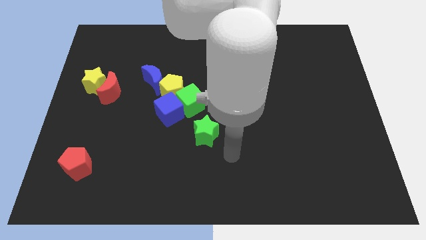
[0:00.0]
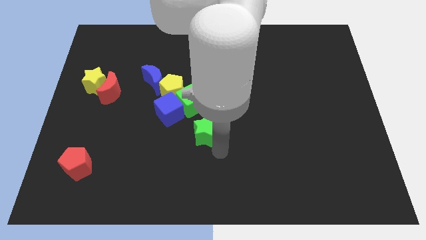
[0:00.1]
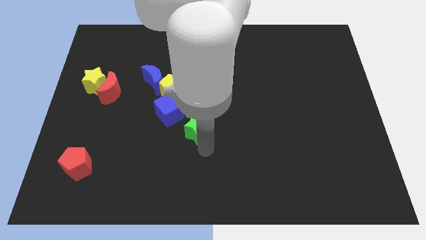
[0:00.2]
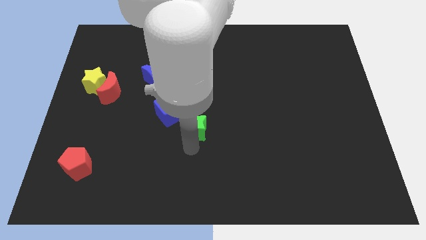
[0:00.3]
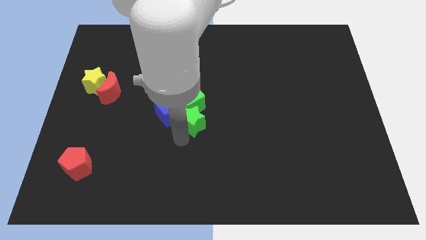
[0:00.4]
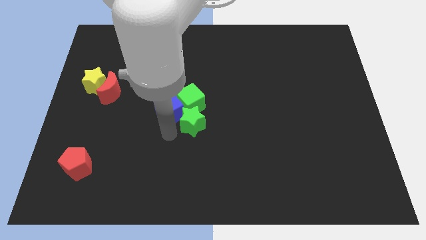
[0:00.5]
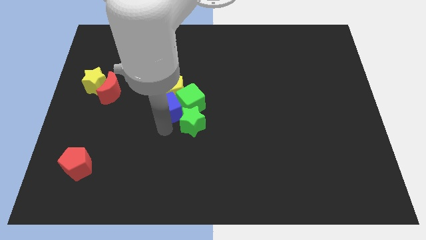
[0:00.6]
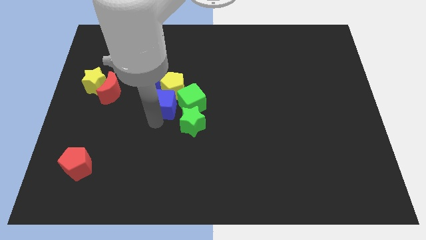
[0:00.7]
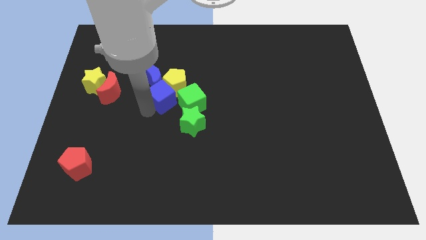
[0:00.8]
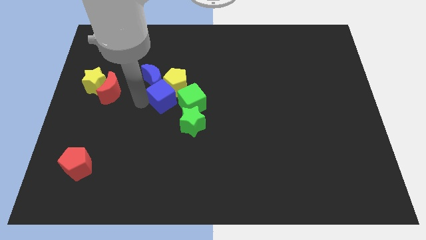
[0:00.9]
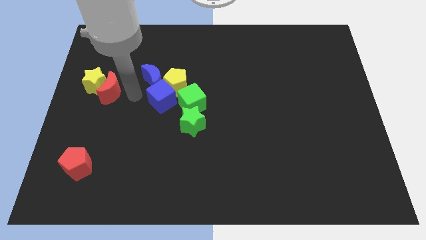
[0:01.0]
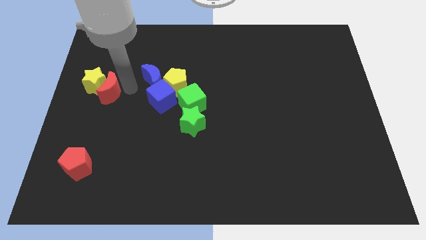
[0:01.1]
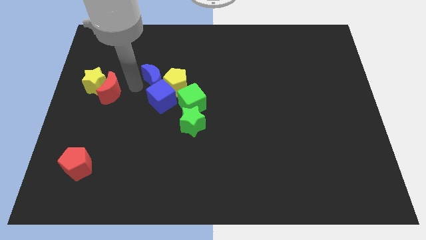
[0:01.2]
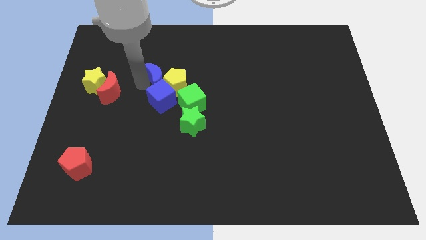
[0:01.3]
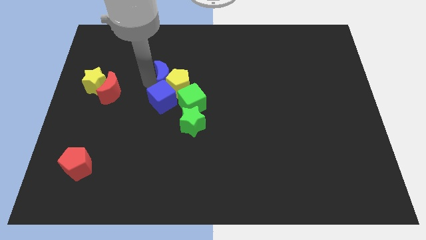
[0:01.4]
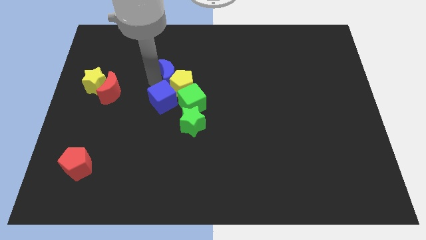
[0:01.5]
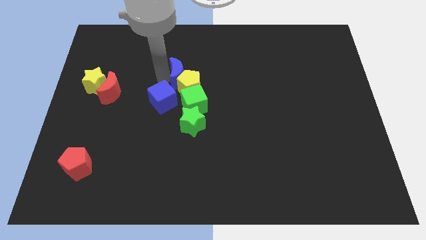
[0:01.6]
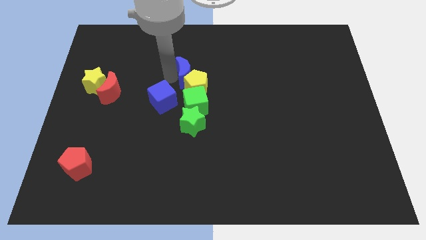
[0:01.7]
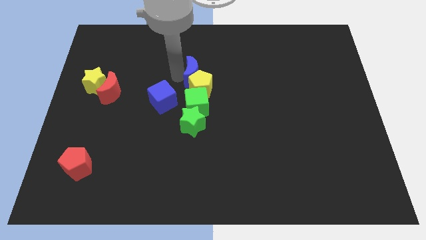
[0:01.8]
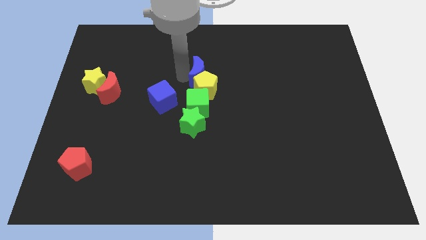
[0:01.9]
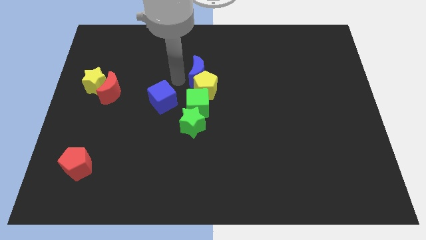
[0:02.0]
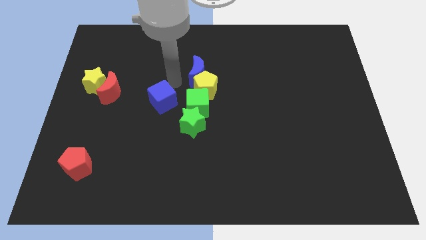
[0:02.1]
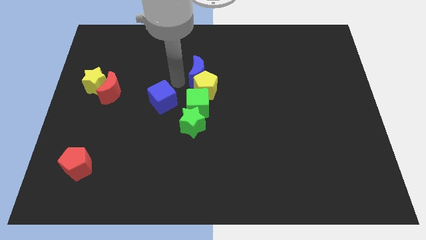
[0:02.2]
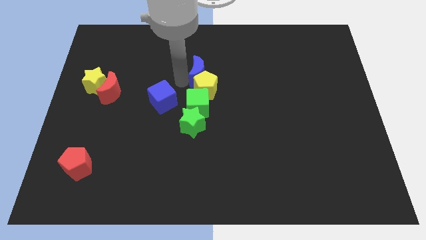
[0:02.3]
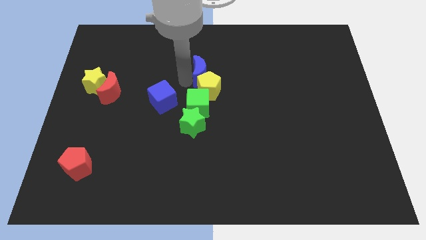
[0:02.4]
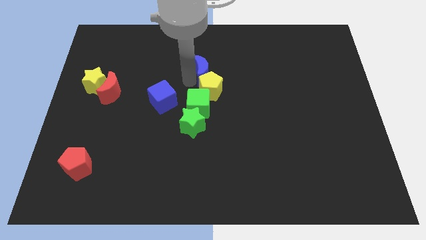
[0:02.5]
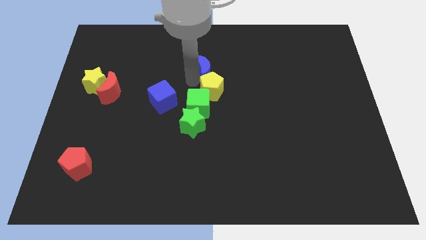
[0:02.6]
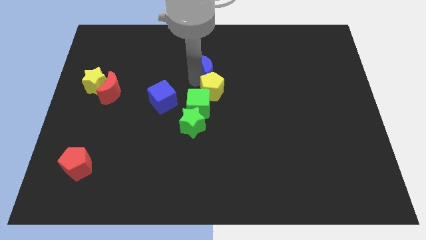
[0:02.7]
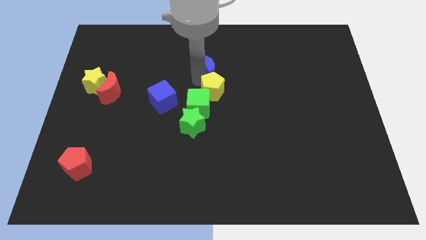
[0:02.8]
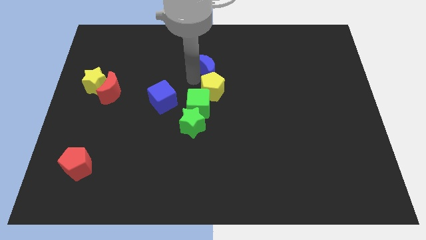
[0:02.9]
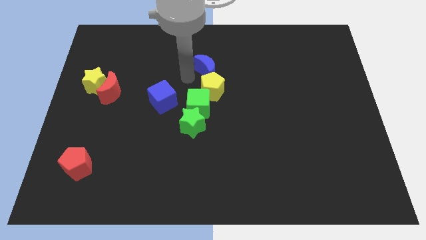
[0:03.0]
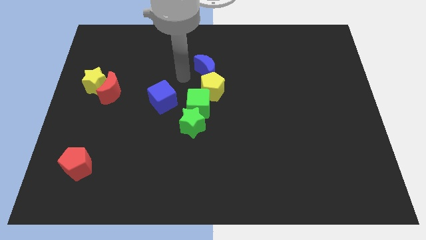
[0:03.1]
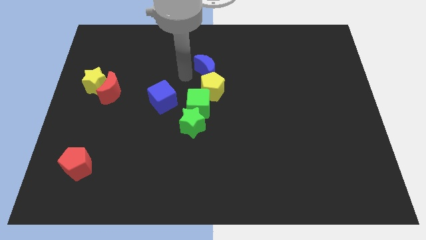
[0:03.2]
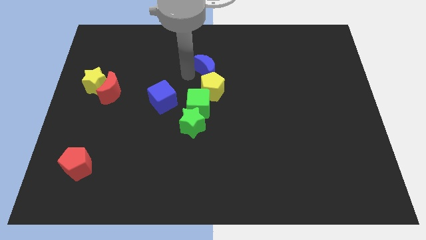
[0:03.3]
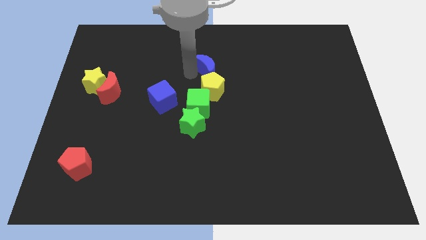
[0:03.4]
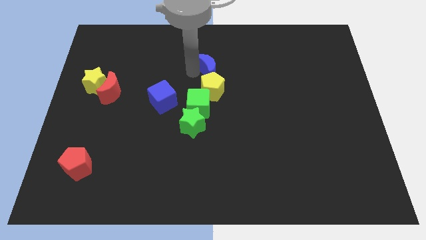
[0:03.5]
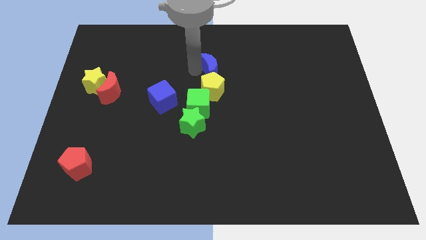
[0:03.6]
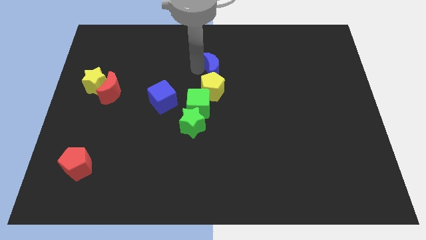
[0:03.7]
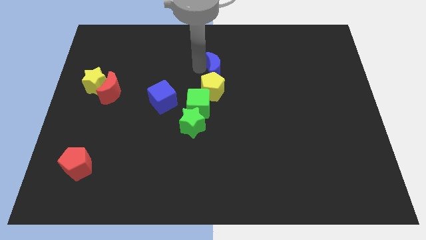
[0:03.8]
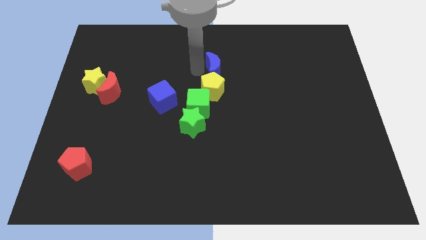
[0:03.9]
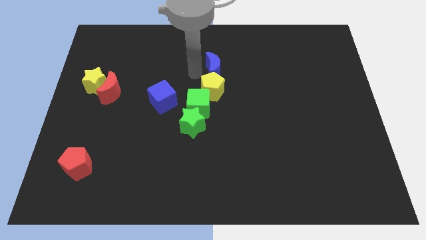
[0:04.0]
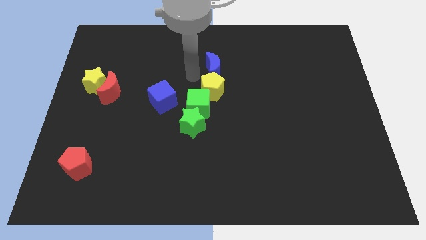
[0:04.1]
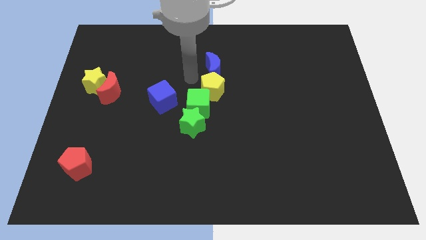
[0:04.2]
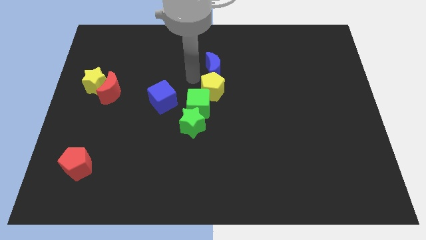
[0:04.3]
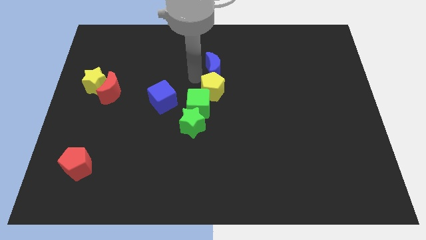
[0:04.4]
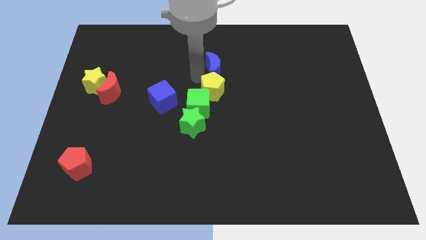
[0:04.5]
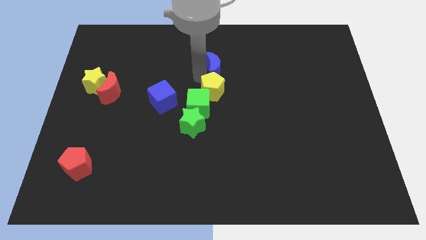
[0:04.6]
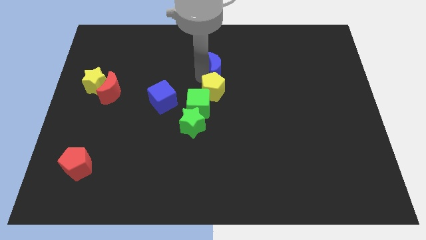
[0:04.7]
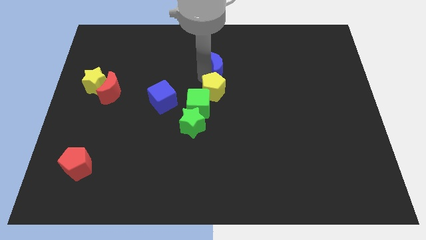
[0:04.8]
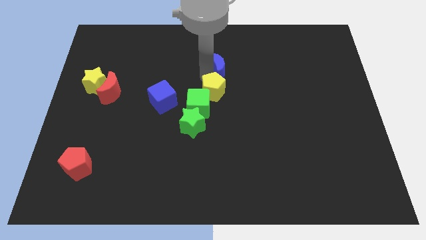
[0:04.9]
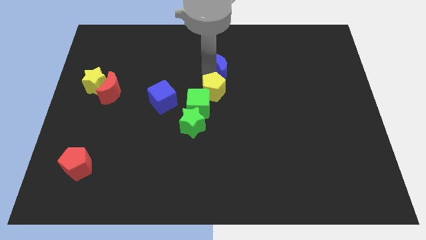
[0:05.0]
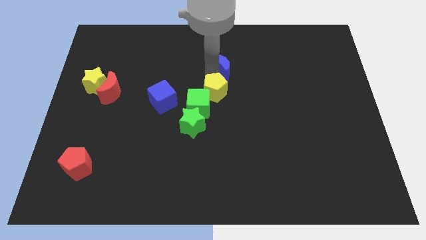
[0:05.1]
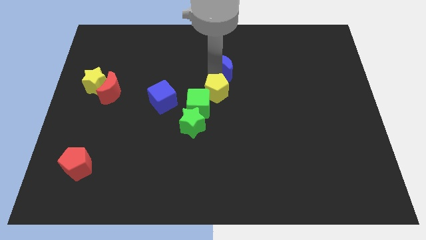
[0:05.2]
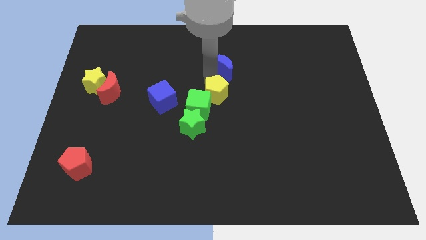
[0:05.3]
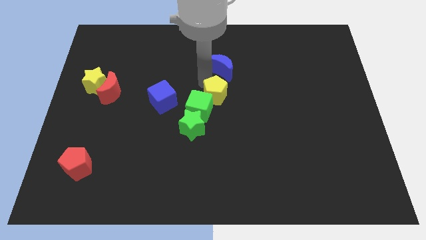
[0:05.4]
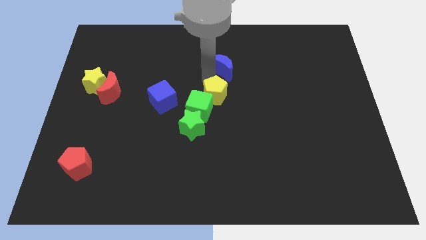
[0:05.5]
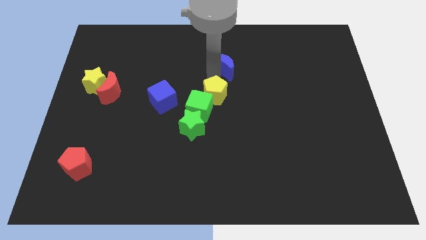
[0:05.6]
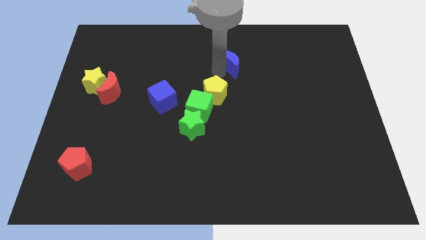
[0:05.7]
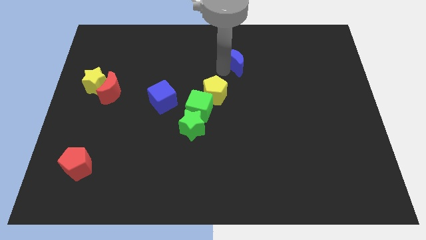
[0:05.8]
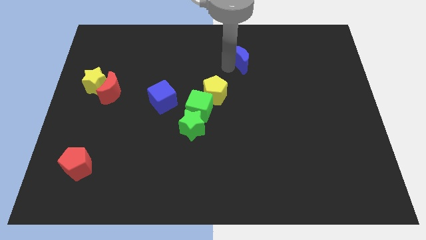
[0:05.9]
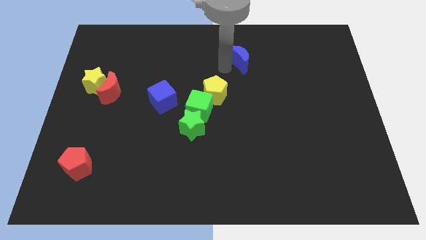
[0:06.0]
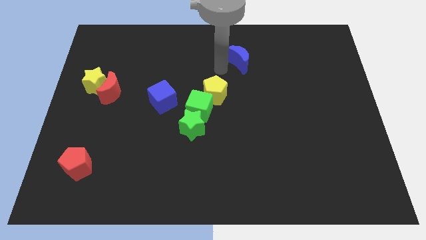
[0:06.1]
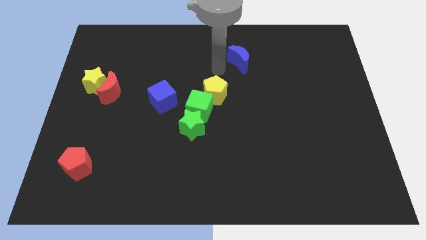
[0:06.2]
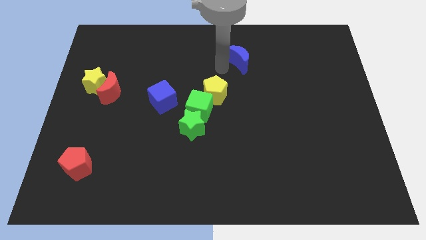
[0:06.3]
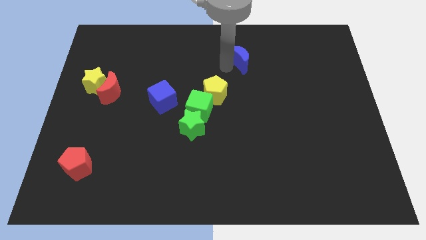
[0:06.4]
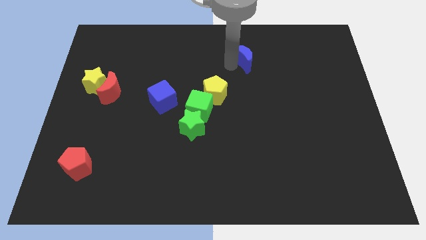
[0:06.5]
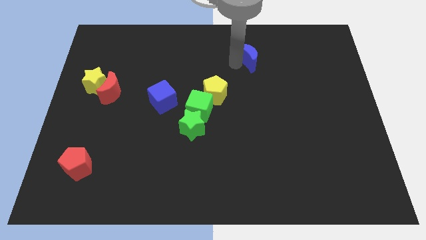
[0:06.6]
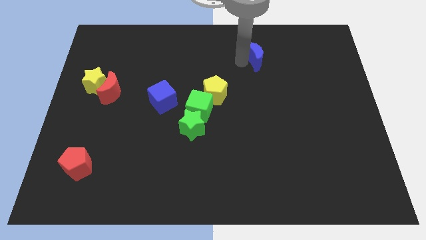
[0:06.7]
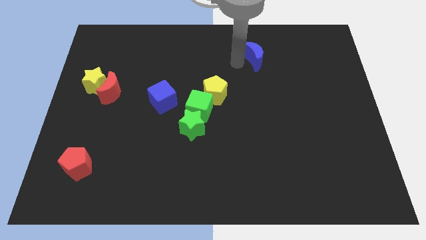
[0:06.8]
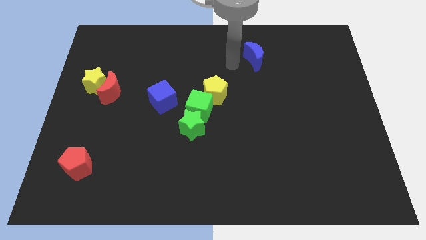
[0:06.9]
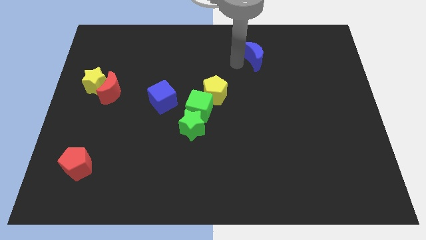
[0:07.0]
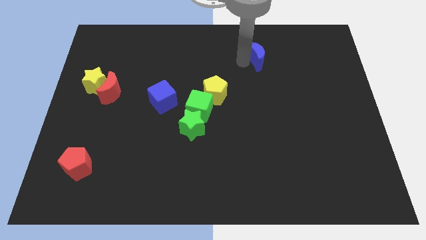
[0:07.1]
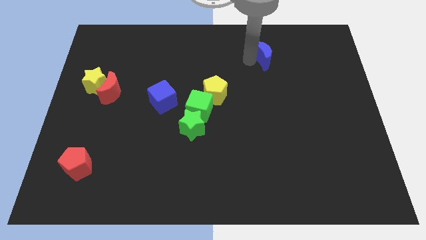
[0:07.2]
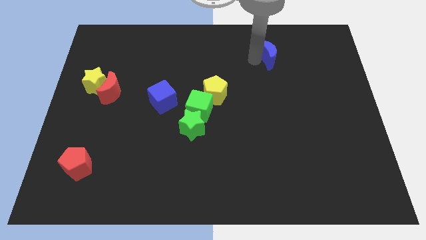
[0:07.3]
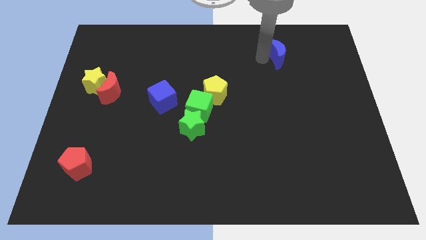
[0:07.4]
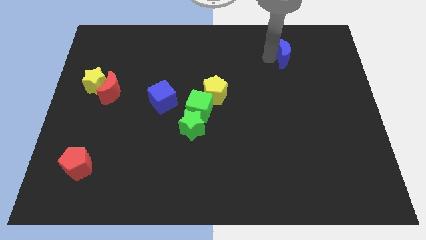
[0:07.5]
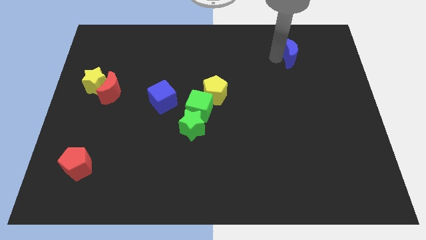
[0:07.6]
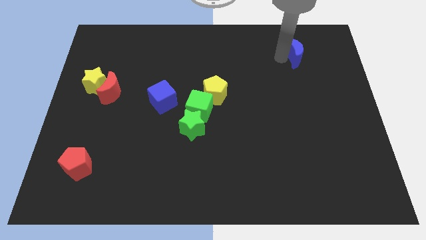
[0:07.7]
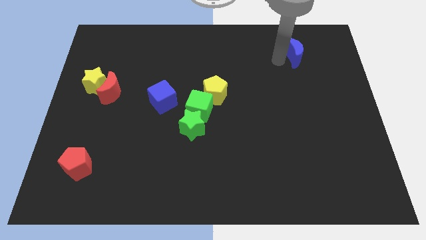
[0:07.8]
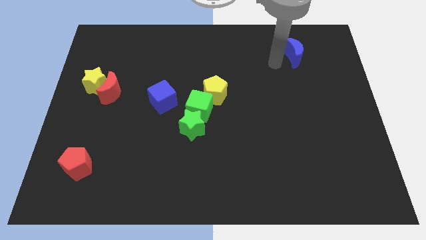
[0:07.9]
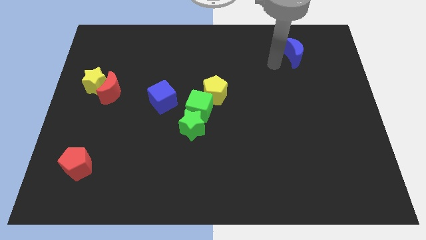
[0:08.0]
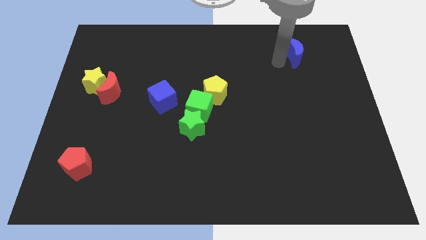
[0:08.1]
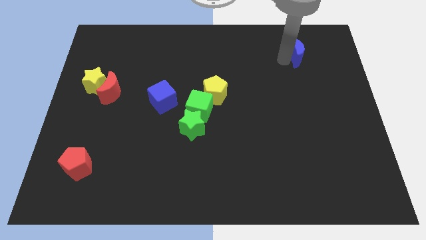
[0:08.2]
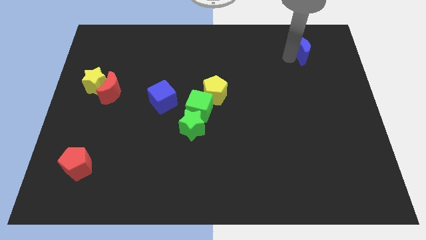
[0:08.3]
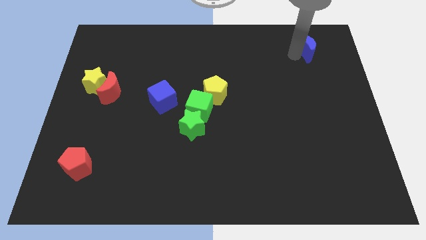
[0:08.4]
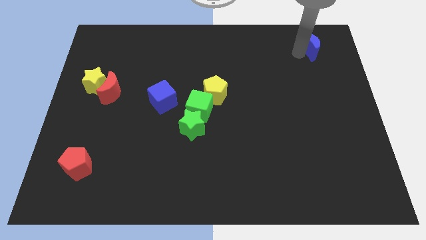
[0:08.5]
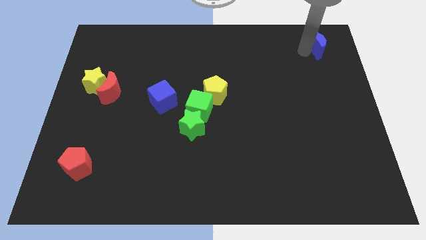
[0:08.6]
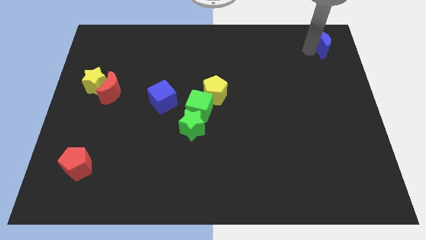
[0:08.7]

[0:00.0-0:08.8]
slide the blue moon to the top right corner
